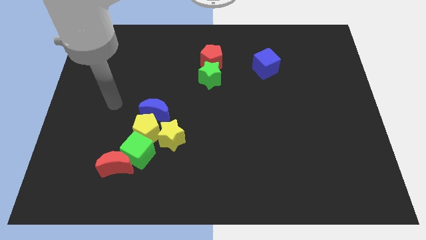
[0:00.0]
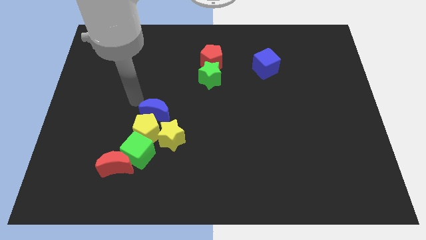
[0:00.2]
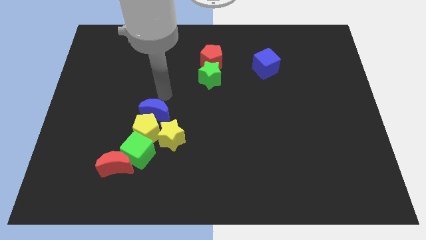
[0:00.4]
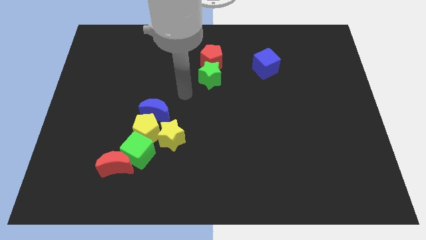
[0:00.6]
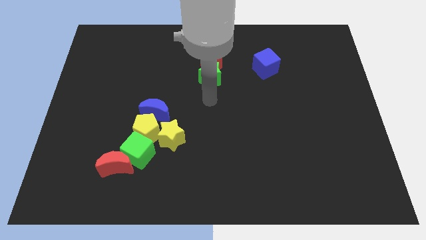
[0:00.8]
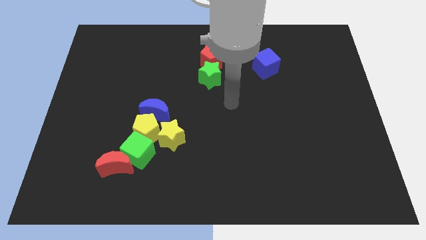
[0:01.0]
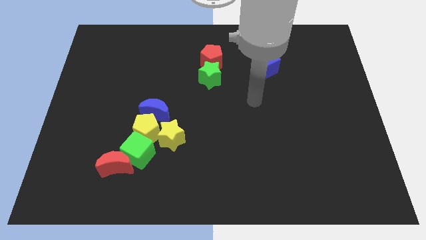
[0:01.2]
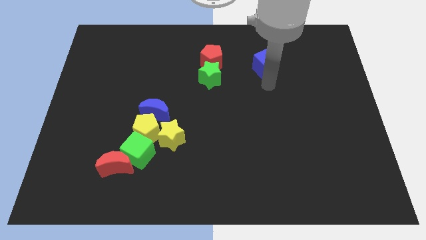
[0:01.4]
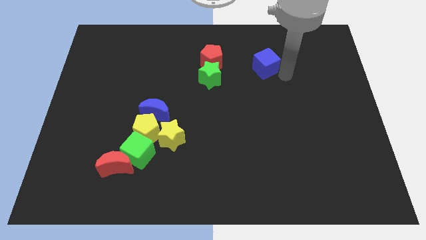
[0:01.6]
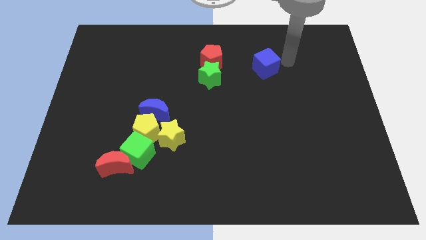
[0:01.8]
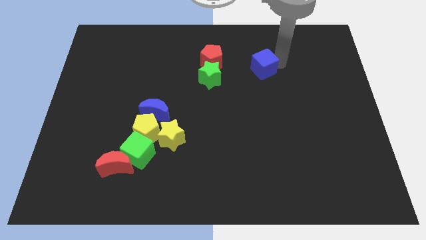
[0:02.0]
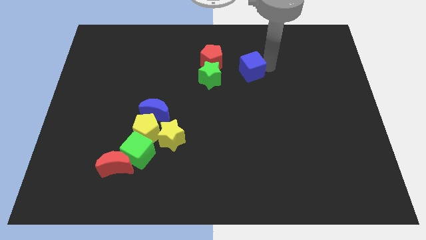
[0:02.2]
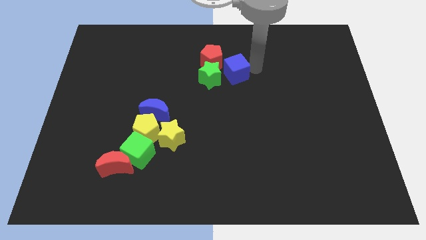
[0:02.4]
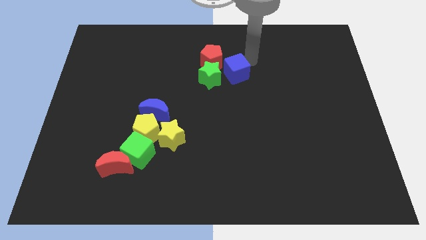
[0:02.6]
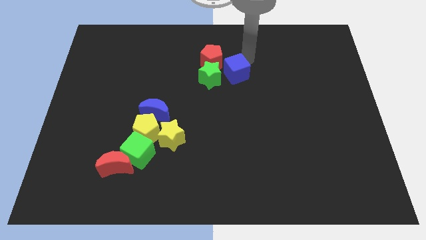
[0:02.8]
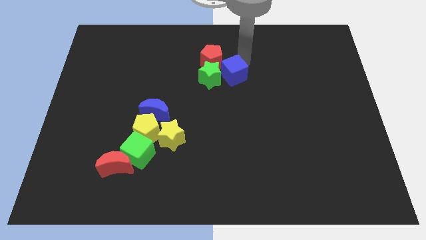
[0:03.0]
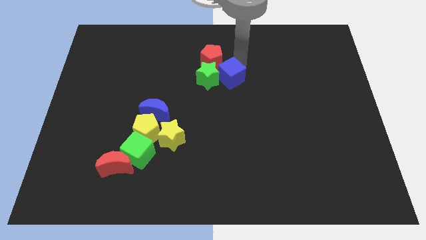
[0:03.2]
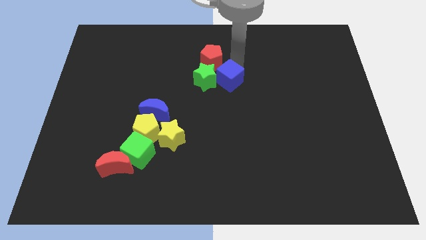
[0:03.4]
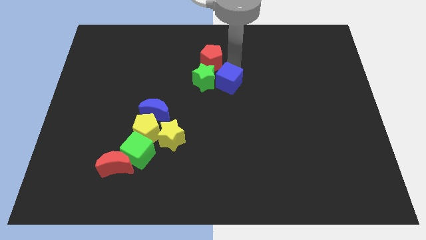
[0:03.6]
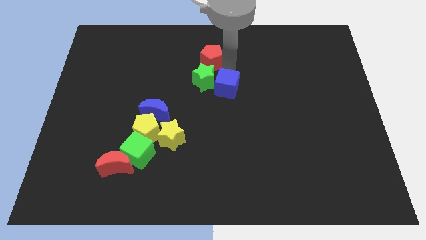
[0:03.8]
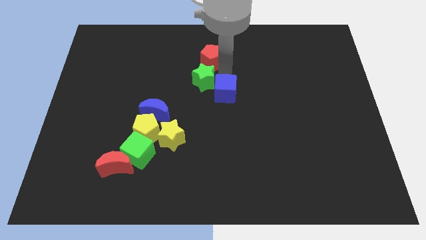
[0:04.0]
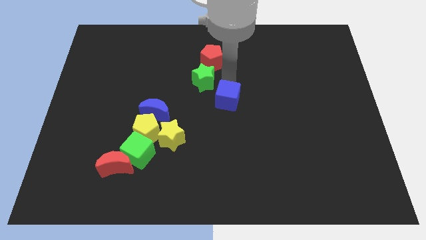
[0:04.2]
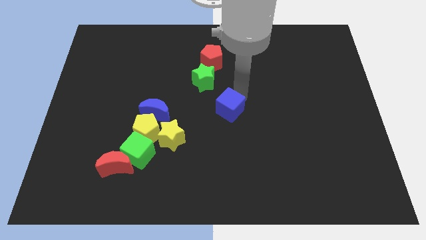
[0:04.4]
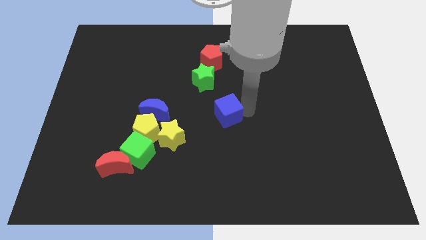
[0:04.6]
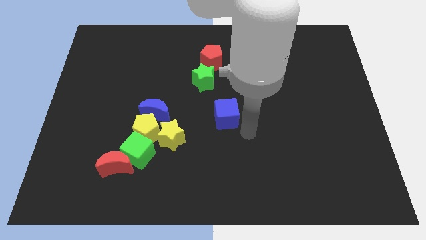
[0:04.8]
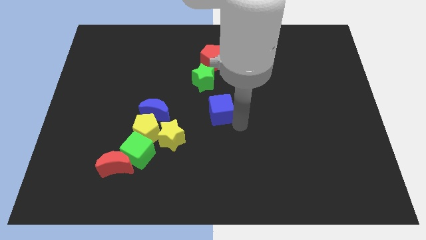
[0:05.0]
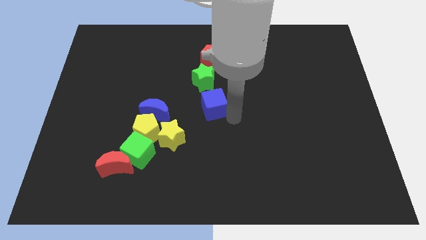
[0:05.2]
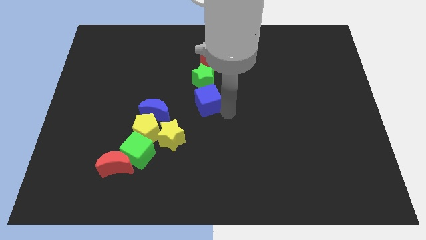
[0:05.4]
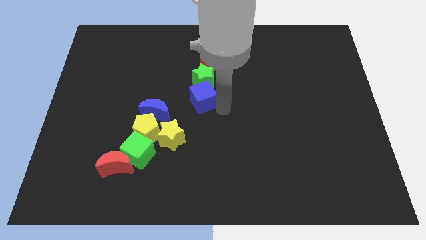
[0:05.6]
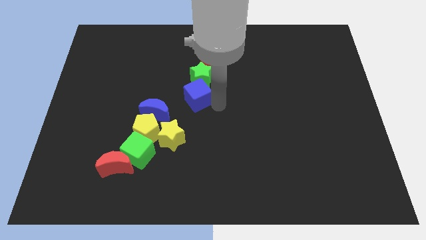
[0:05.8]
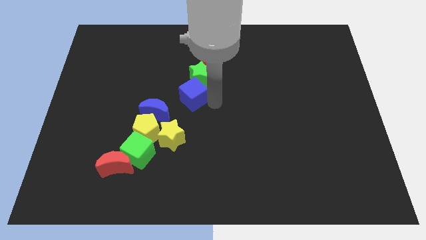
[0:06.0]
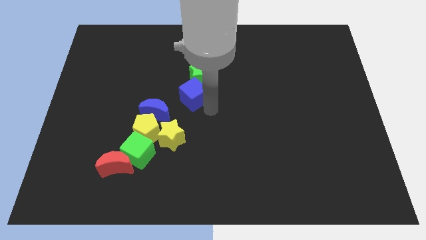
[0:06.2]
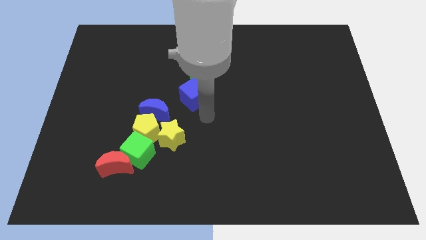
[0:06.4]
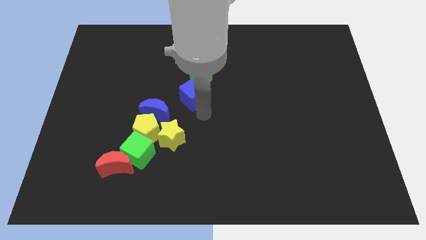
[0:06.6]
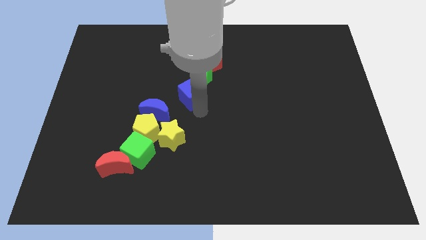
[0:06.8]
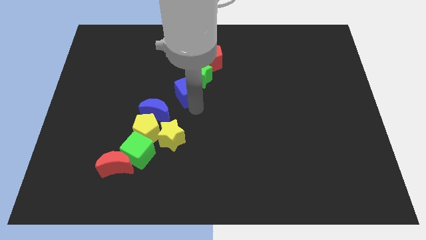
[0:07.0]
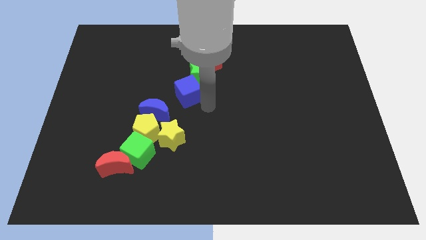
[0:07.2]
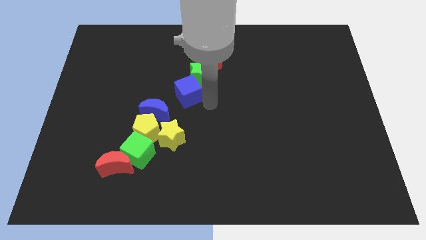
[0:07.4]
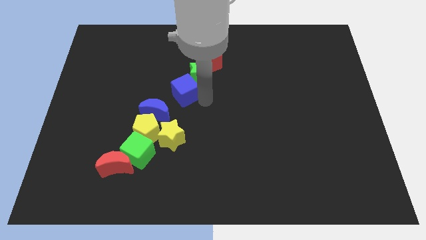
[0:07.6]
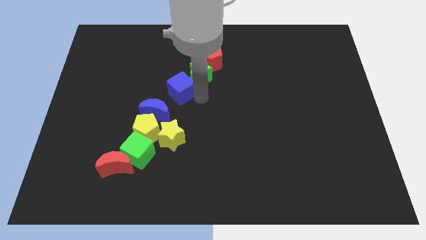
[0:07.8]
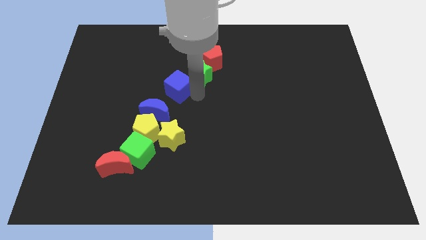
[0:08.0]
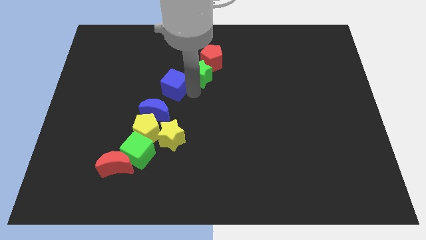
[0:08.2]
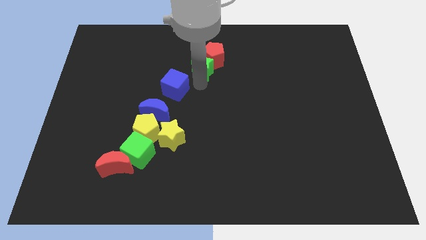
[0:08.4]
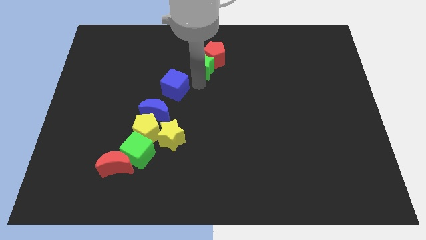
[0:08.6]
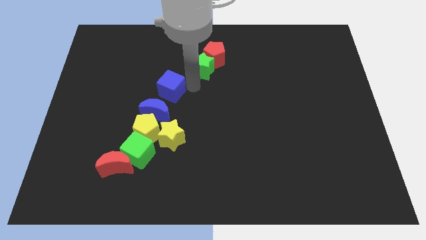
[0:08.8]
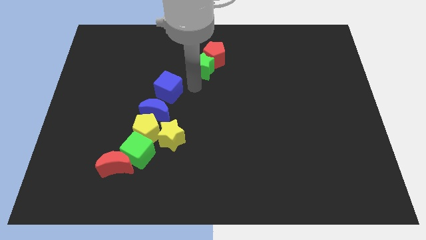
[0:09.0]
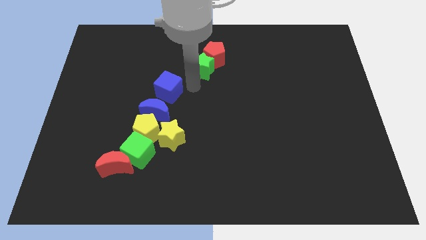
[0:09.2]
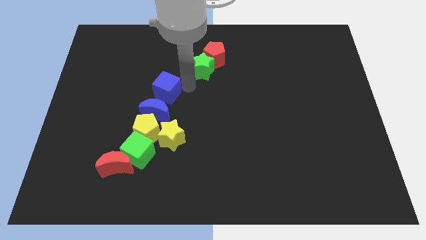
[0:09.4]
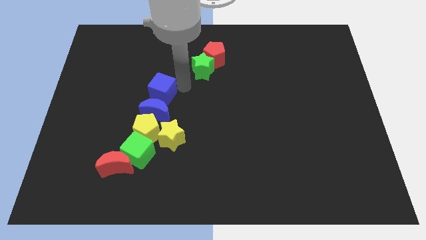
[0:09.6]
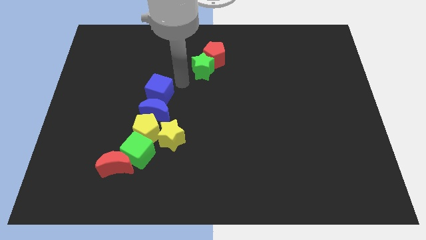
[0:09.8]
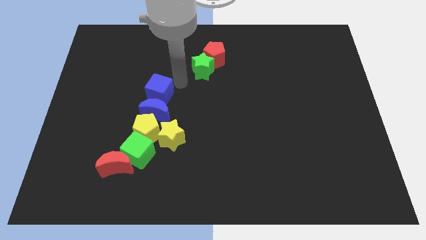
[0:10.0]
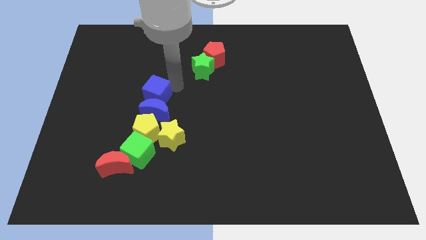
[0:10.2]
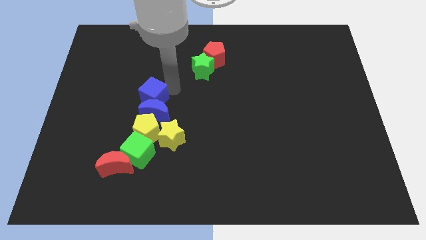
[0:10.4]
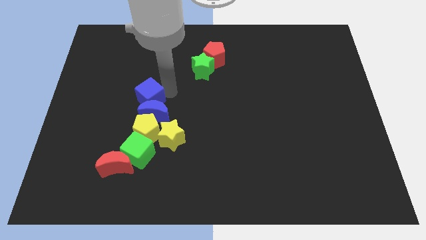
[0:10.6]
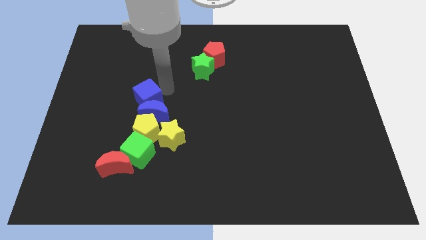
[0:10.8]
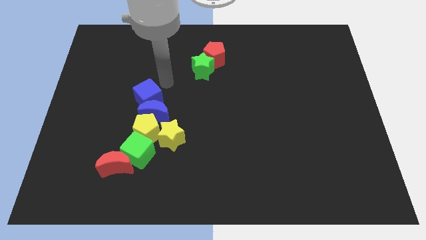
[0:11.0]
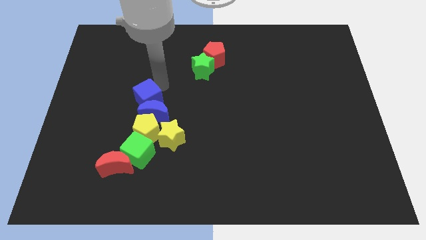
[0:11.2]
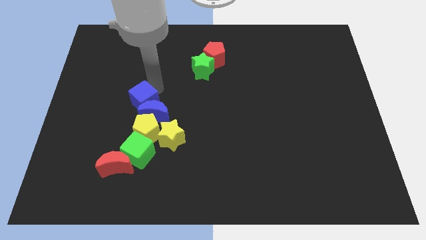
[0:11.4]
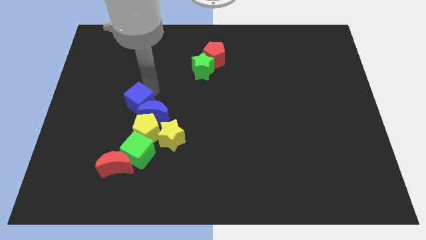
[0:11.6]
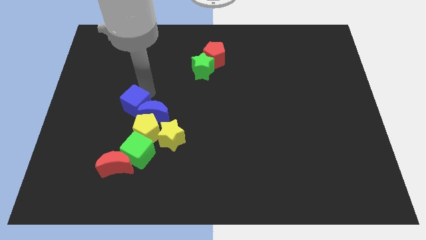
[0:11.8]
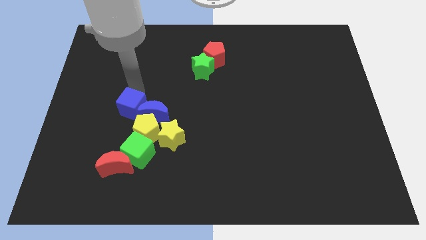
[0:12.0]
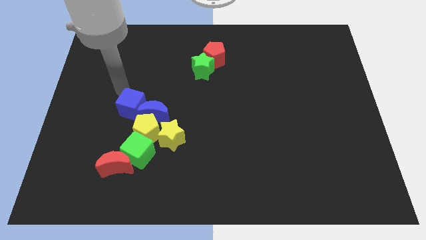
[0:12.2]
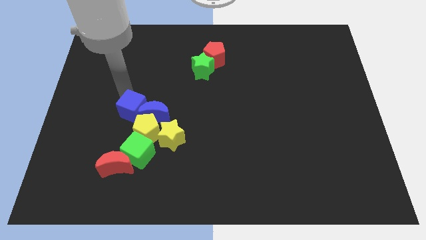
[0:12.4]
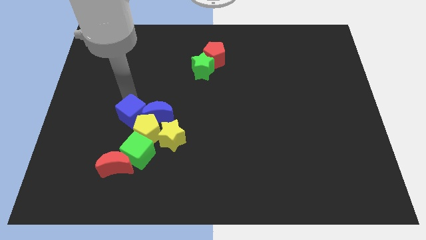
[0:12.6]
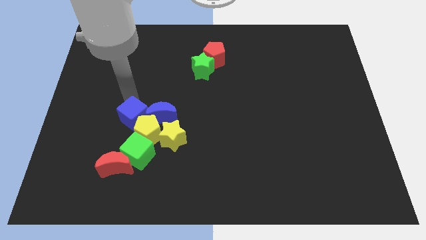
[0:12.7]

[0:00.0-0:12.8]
put the blue cube towards the yellow pentagon
